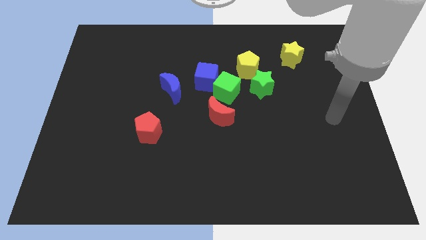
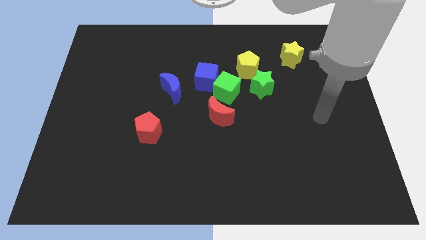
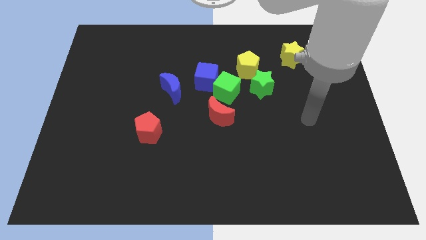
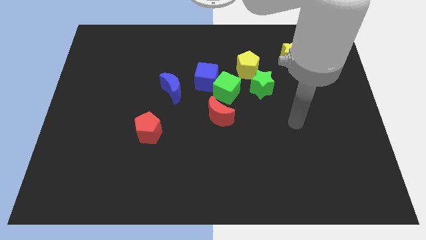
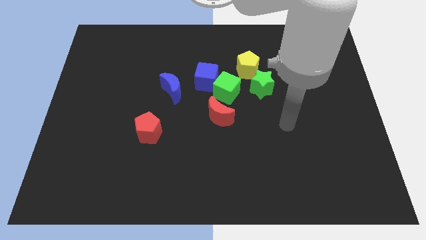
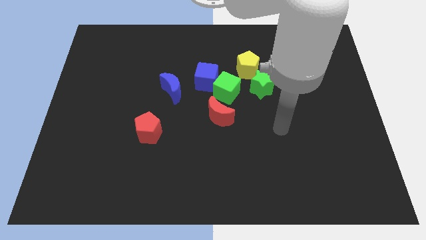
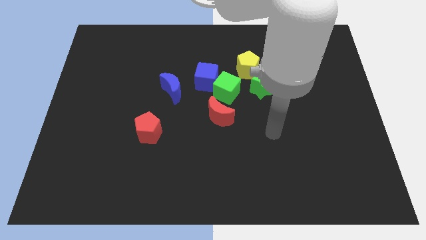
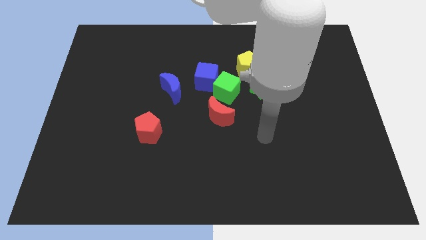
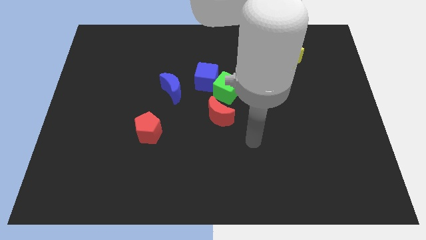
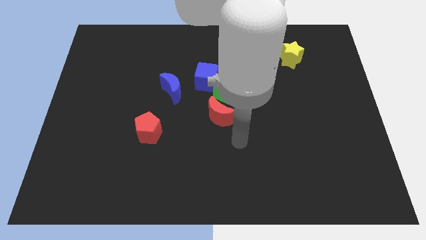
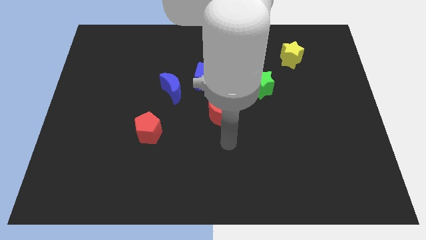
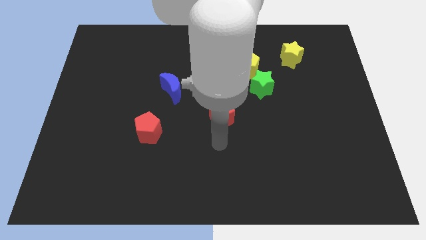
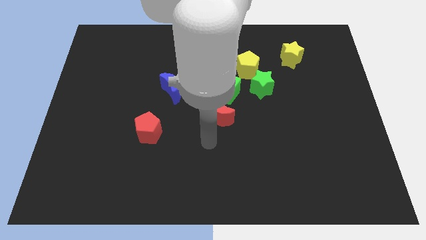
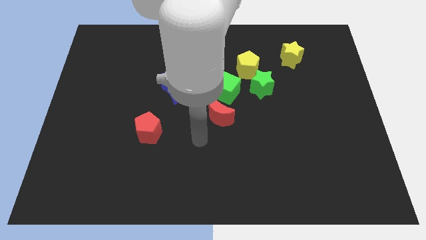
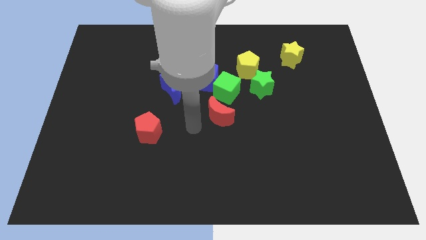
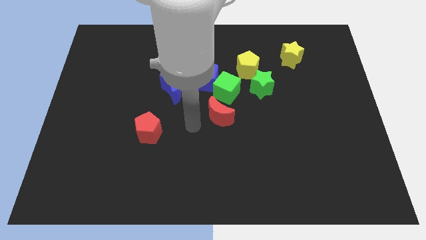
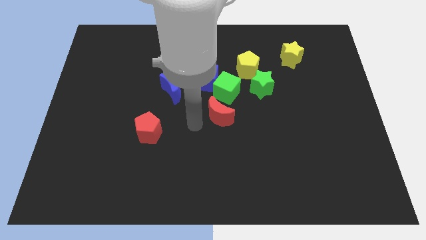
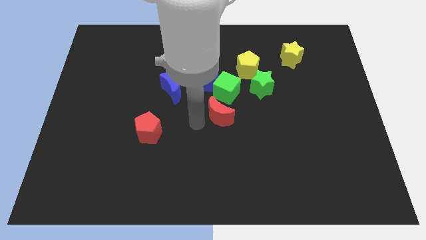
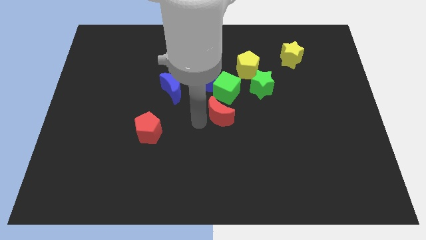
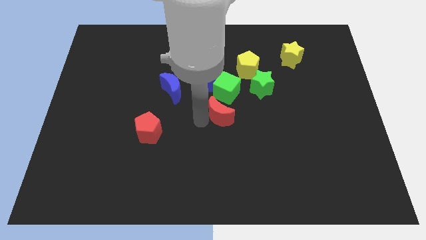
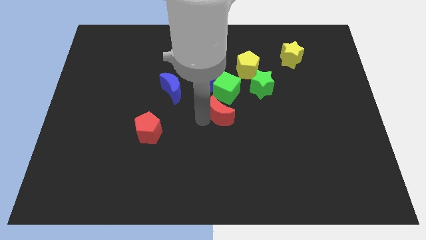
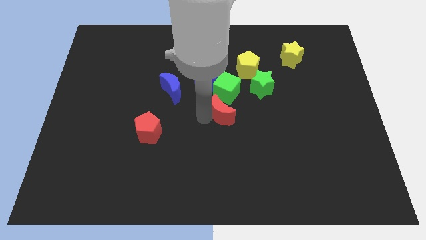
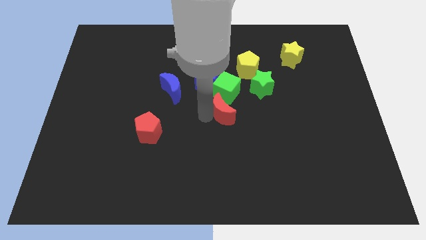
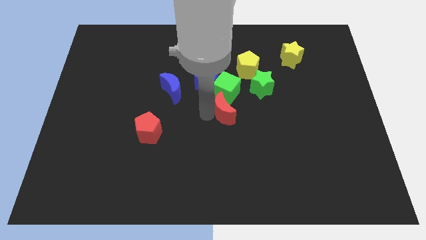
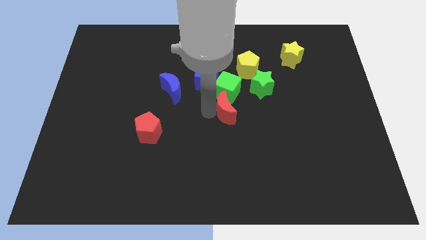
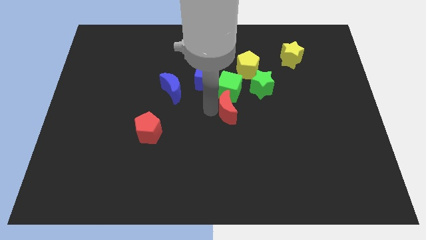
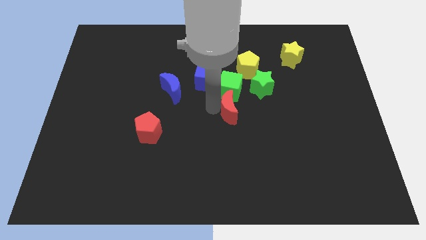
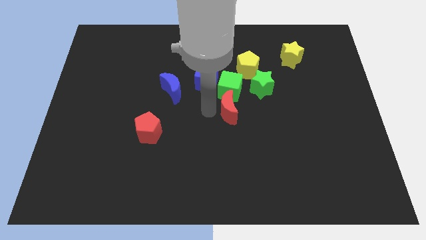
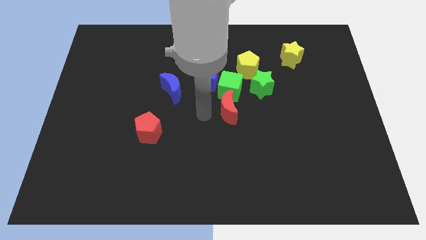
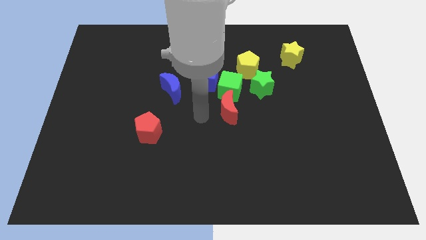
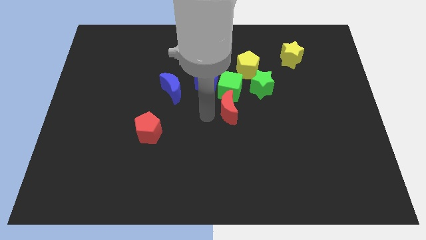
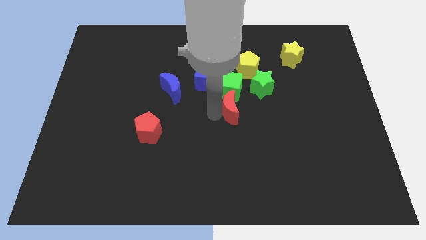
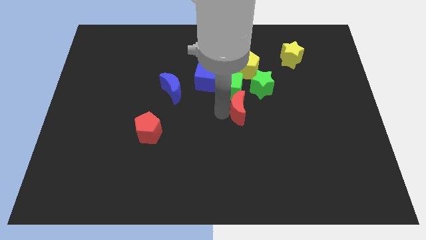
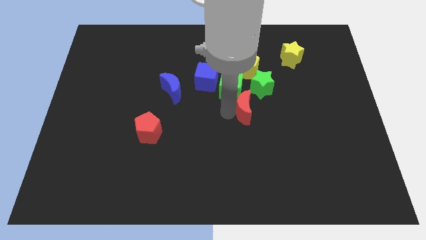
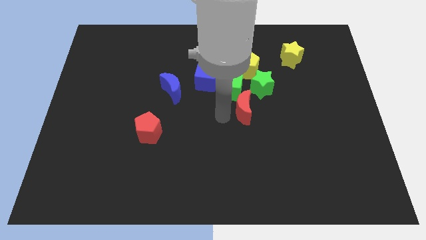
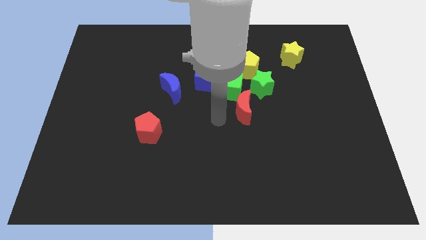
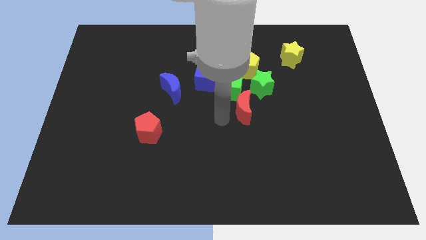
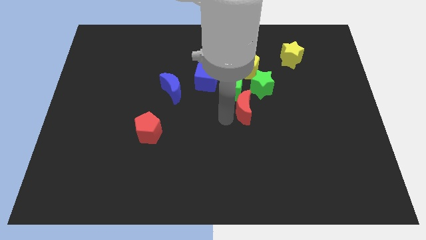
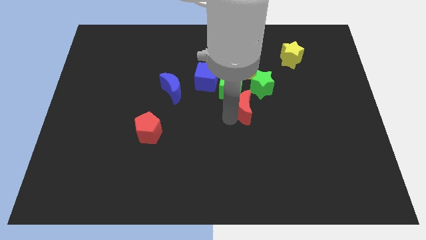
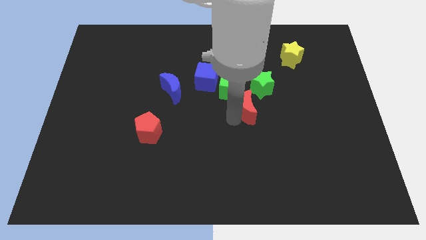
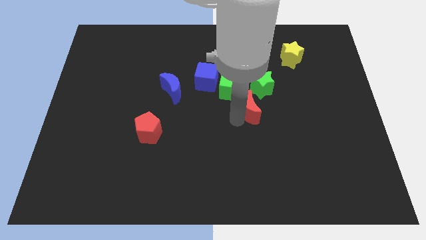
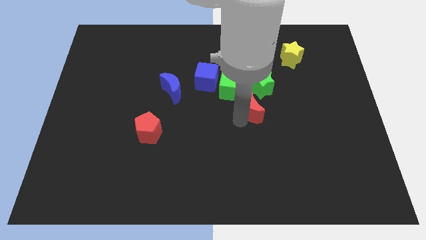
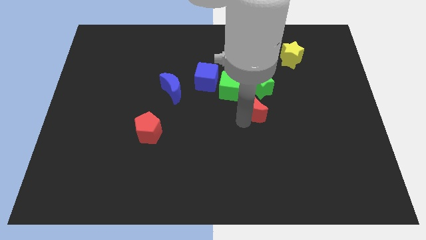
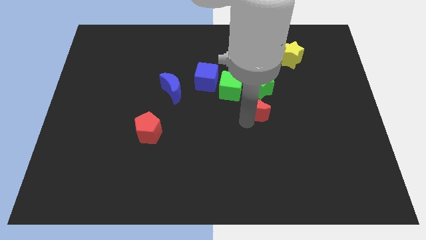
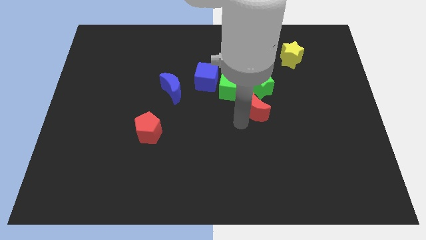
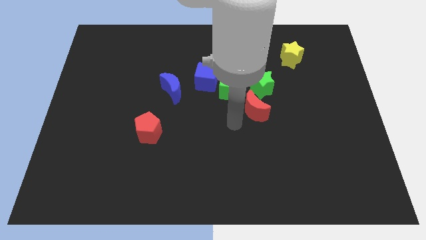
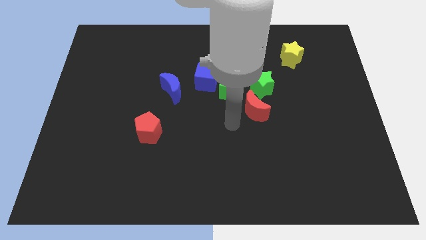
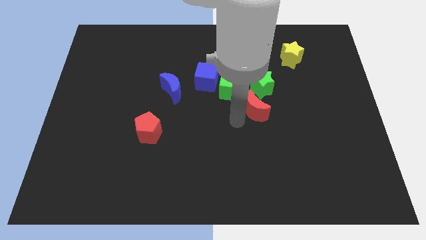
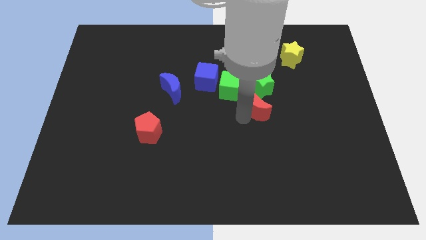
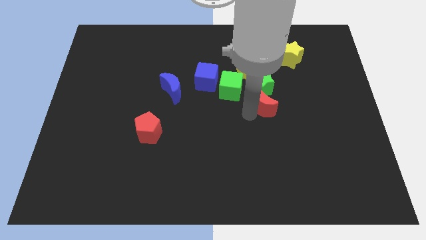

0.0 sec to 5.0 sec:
slightly slide the red moon up and to the right

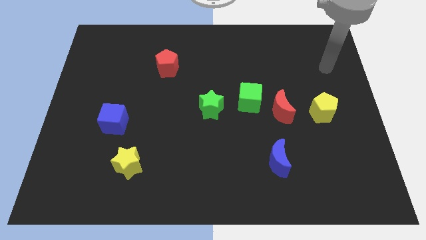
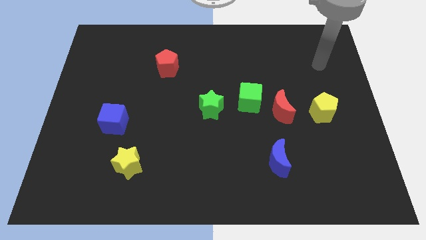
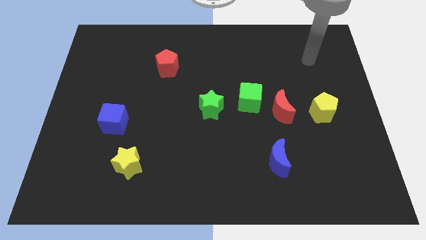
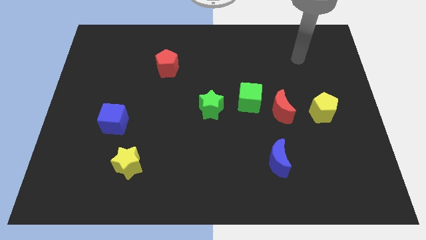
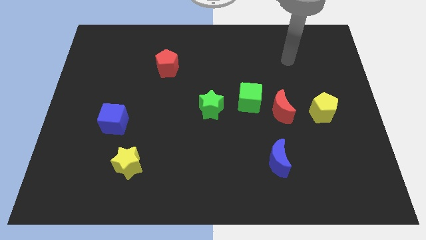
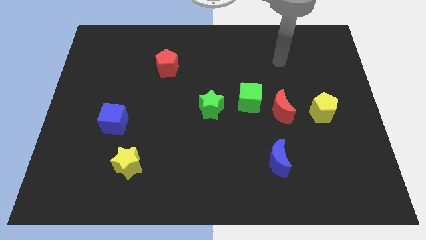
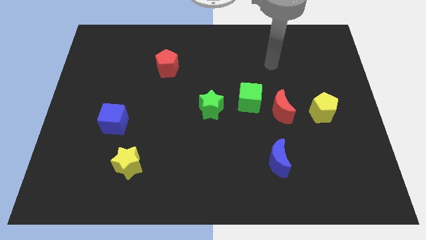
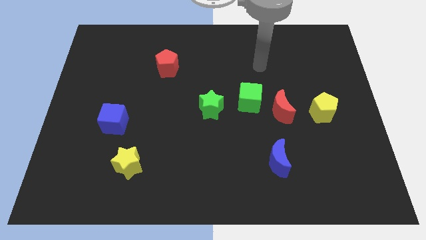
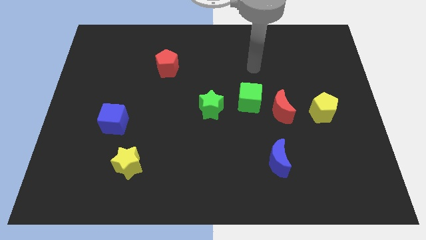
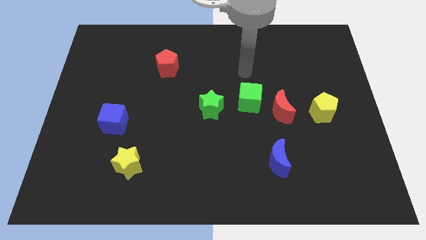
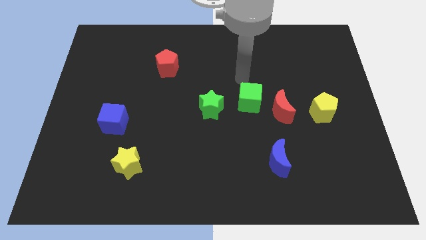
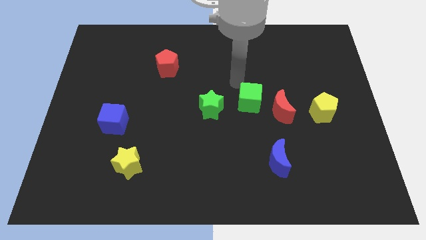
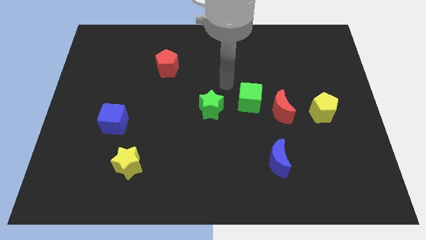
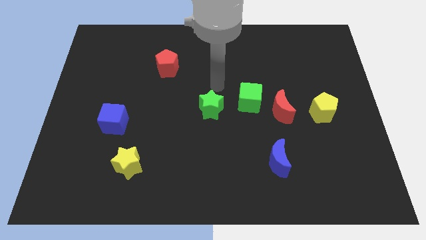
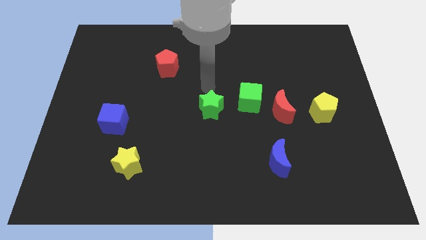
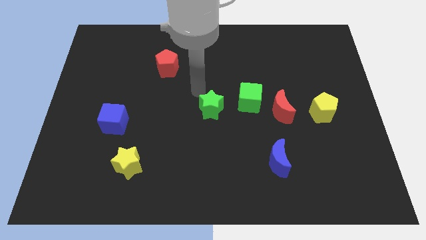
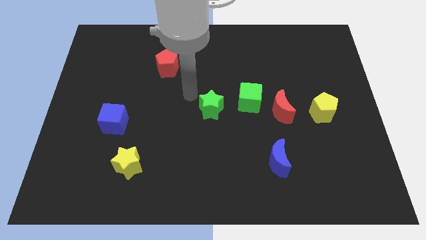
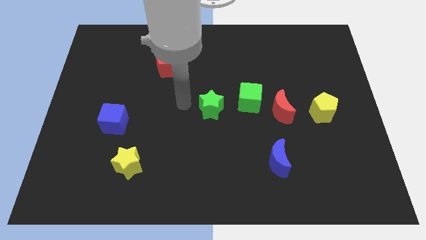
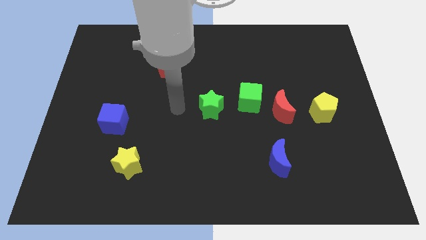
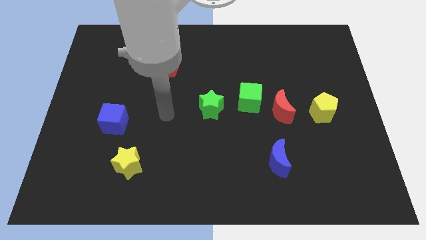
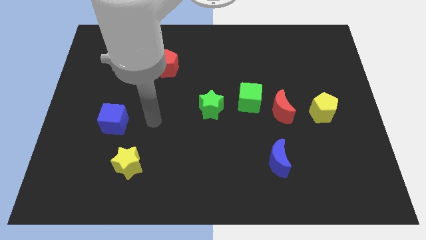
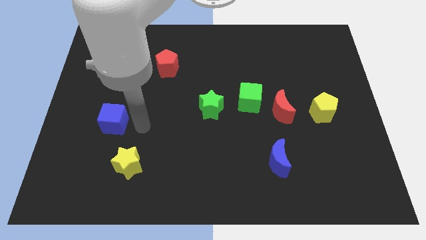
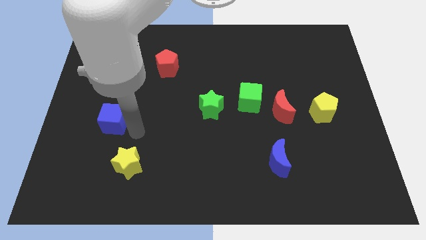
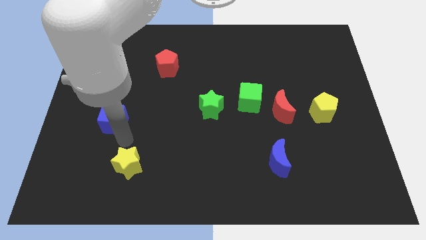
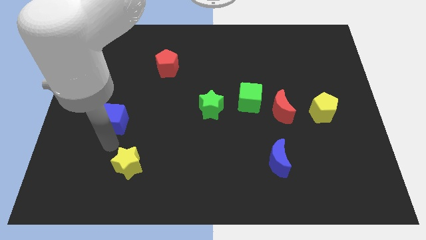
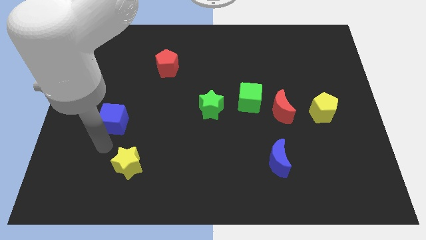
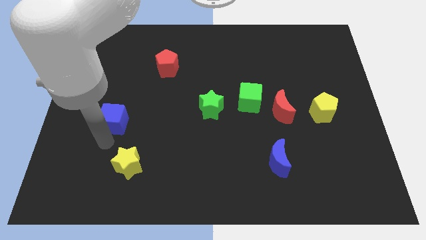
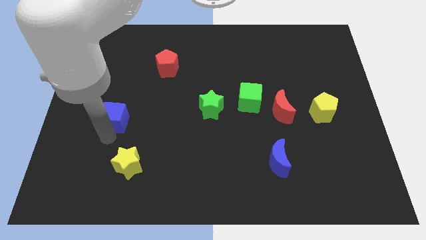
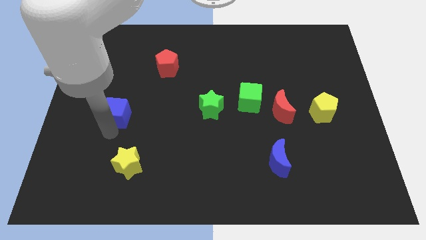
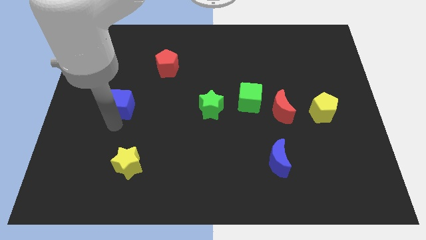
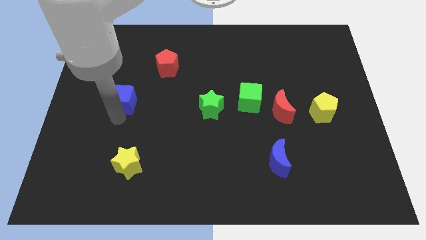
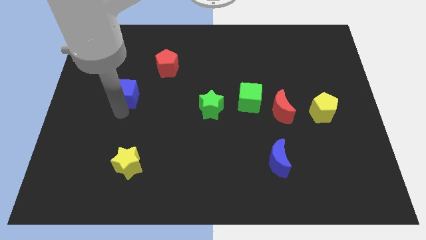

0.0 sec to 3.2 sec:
push the blue cube a little bit up
